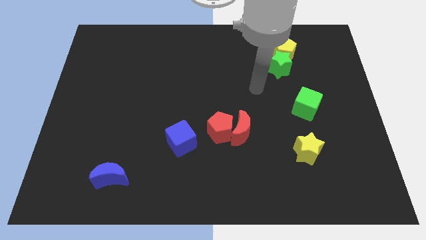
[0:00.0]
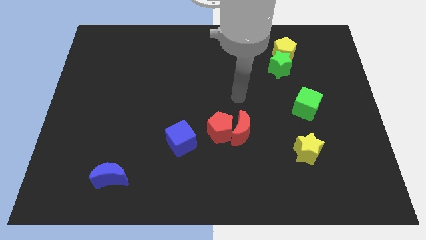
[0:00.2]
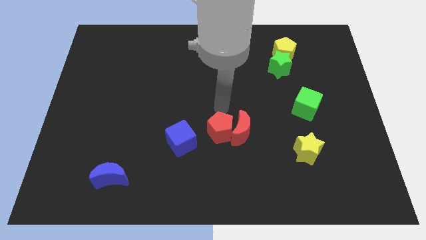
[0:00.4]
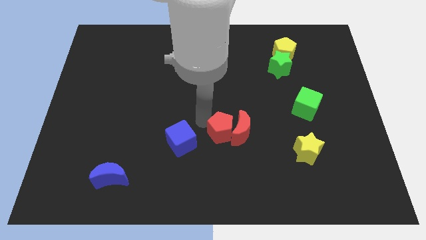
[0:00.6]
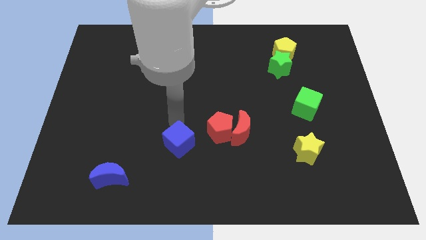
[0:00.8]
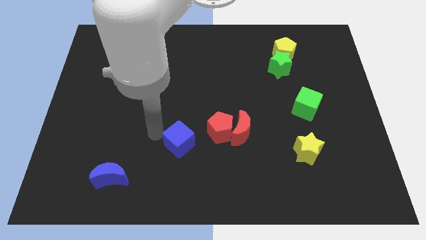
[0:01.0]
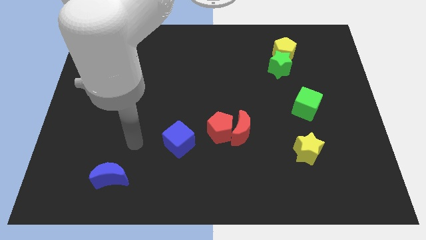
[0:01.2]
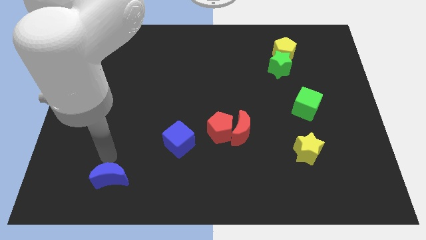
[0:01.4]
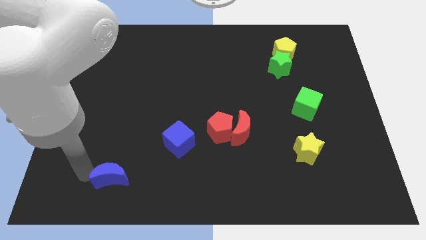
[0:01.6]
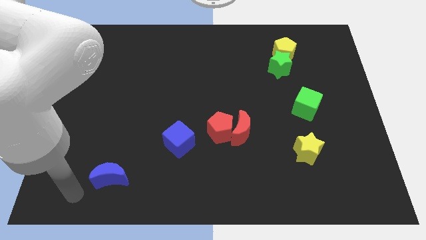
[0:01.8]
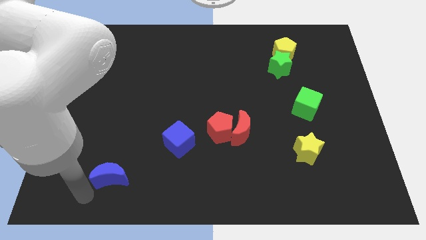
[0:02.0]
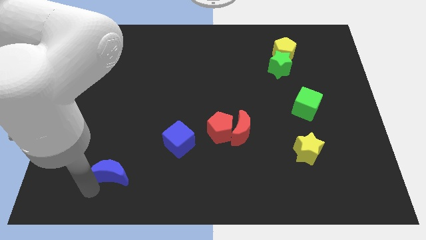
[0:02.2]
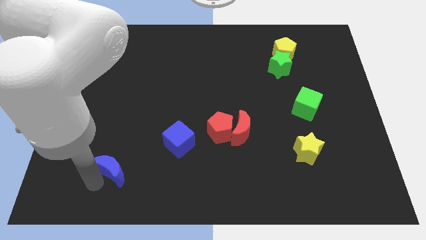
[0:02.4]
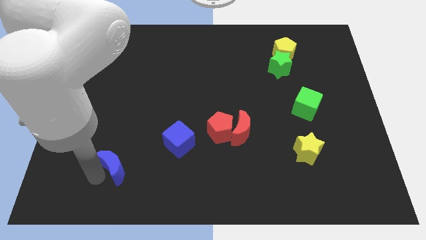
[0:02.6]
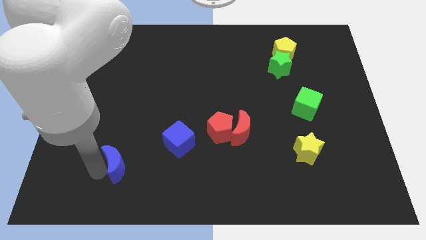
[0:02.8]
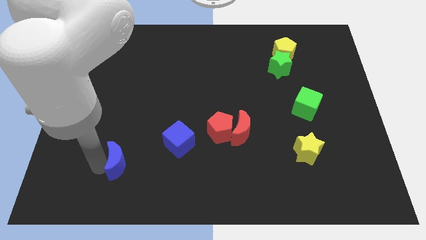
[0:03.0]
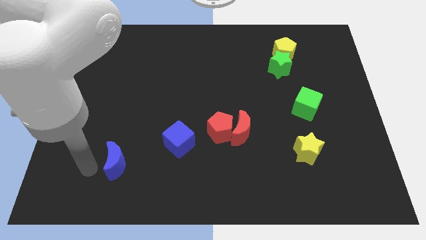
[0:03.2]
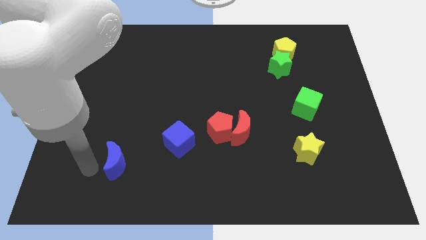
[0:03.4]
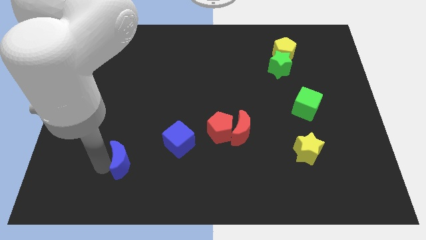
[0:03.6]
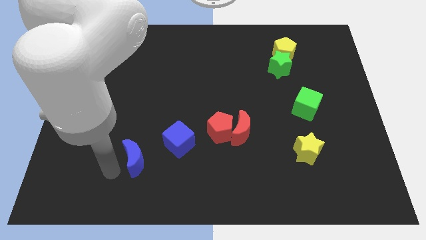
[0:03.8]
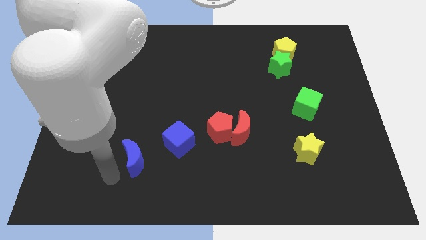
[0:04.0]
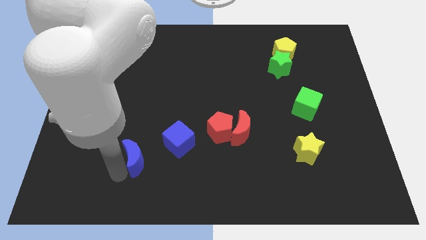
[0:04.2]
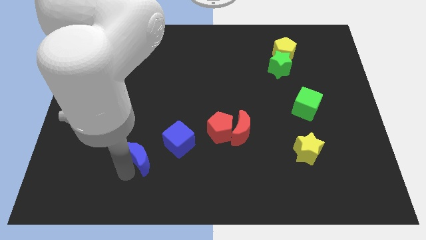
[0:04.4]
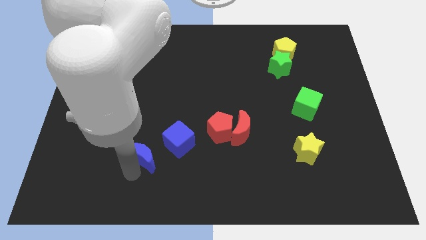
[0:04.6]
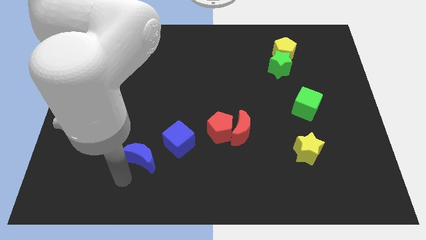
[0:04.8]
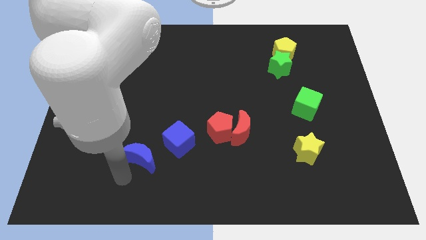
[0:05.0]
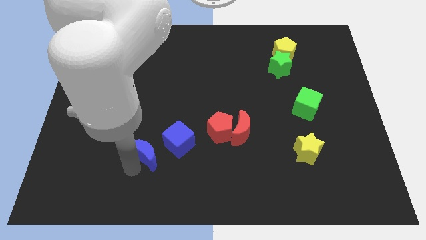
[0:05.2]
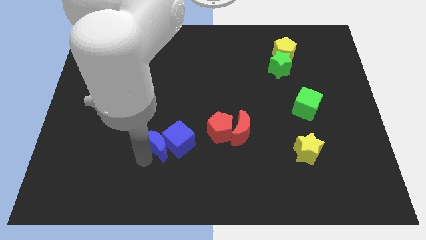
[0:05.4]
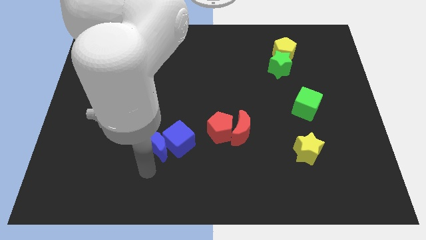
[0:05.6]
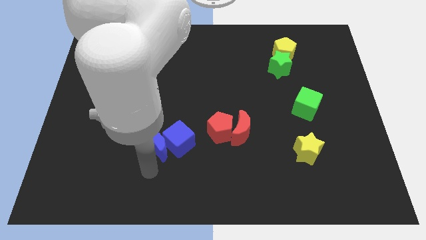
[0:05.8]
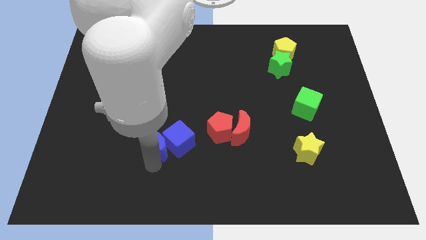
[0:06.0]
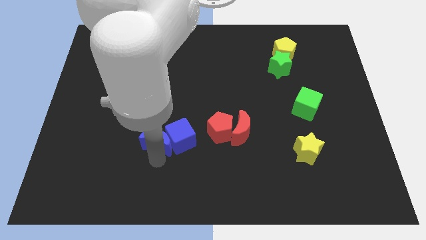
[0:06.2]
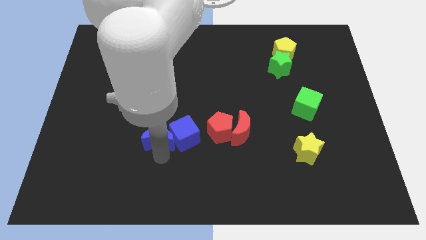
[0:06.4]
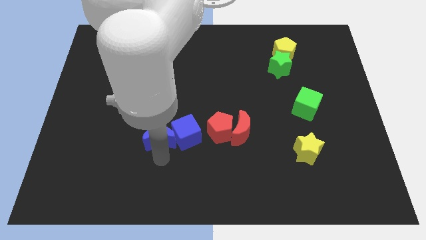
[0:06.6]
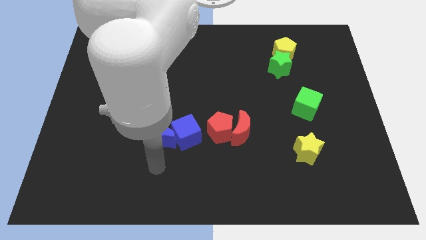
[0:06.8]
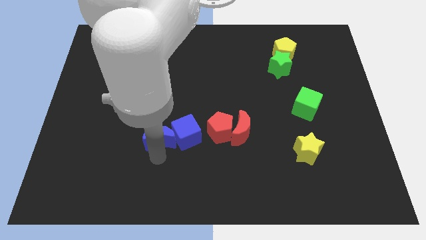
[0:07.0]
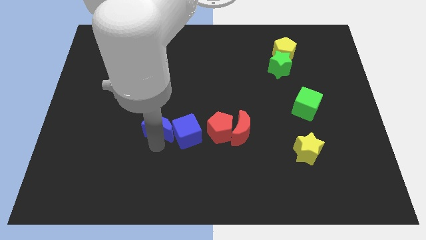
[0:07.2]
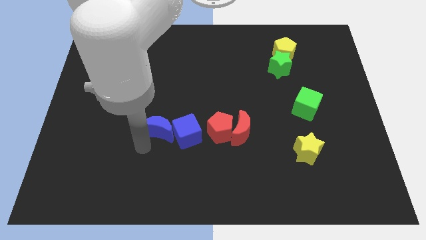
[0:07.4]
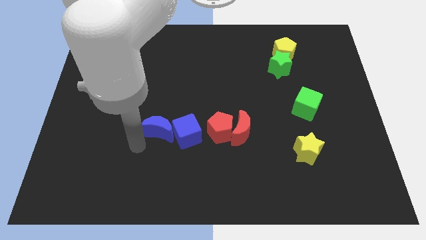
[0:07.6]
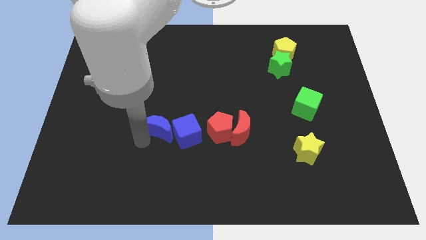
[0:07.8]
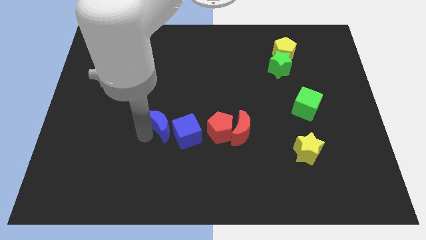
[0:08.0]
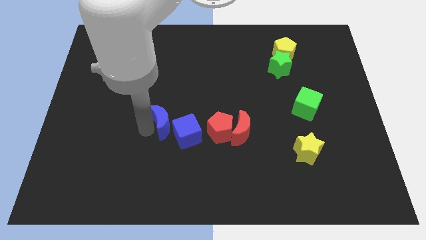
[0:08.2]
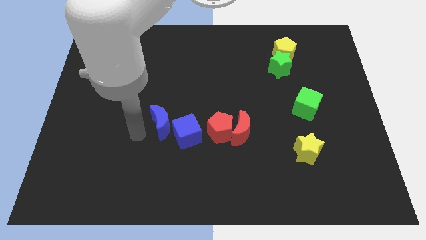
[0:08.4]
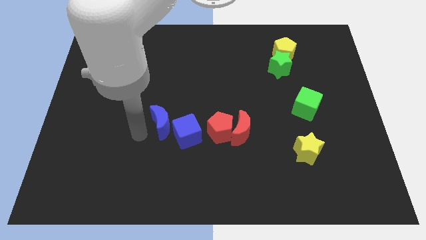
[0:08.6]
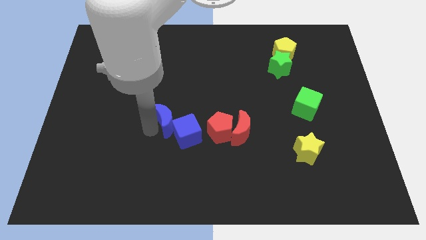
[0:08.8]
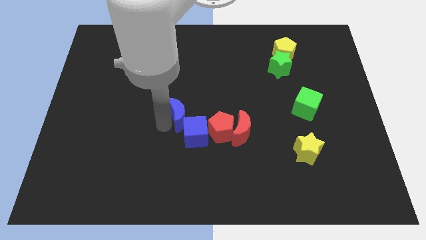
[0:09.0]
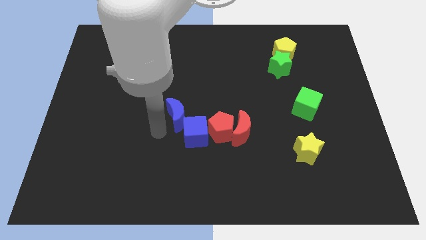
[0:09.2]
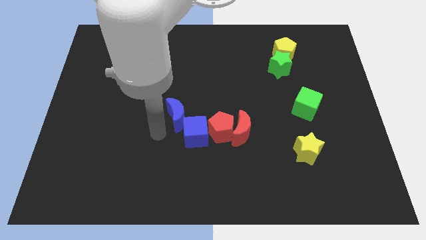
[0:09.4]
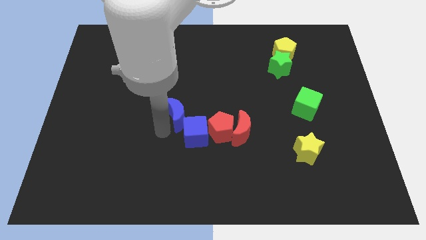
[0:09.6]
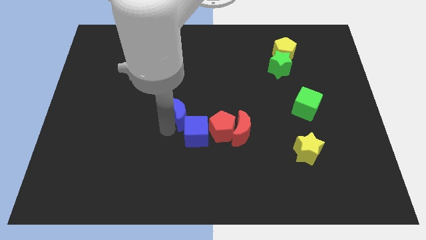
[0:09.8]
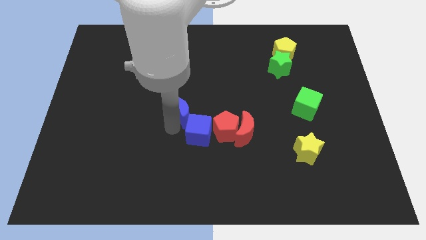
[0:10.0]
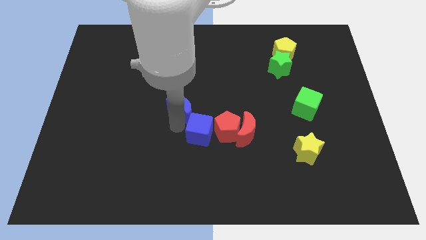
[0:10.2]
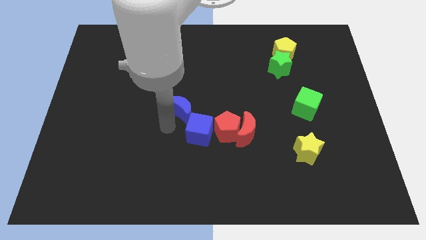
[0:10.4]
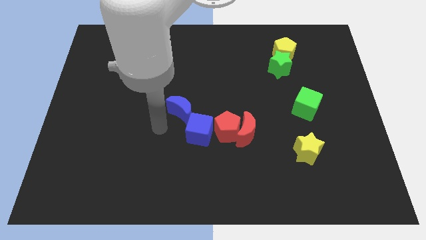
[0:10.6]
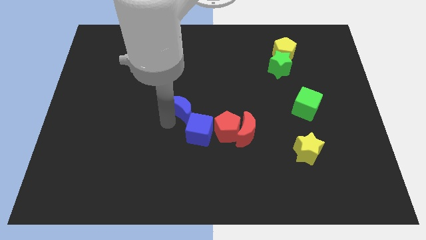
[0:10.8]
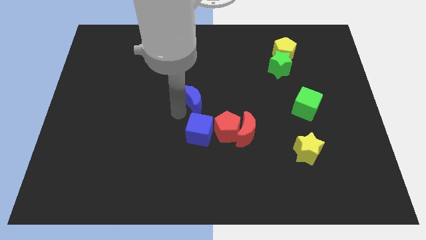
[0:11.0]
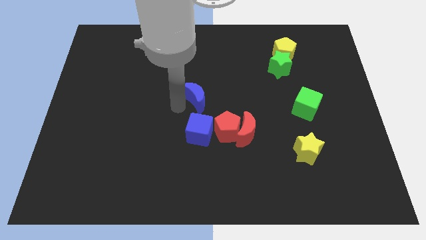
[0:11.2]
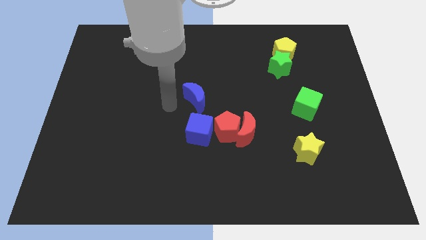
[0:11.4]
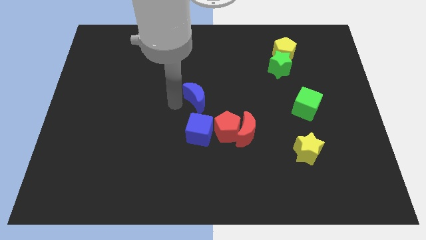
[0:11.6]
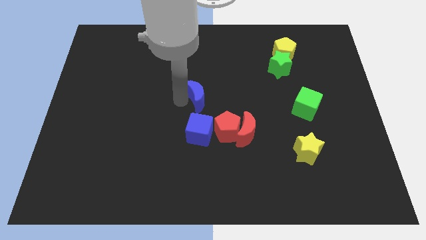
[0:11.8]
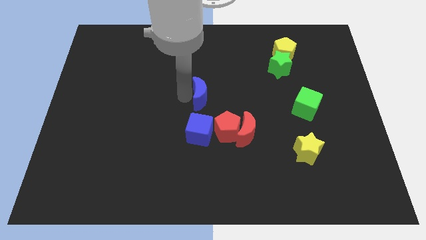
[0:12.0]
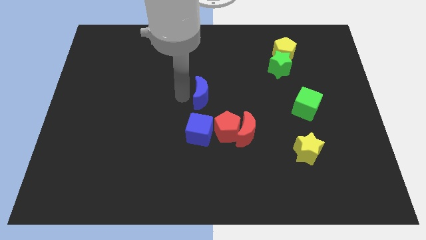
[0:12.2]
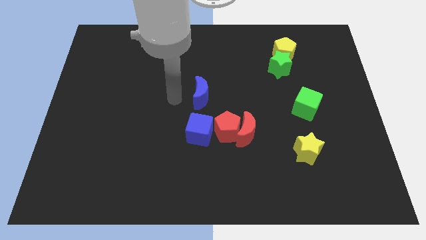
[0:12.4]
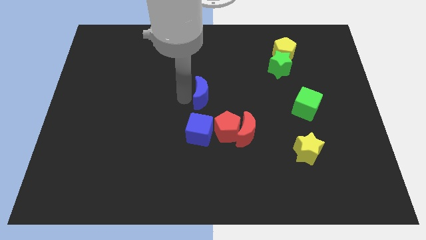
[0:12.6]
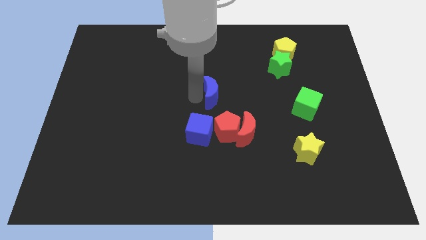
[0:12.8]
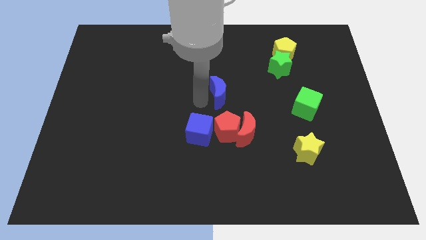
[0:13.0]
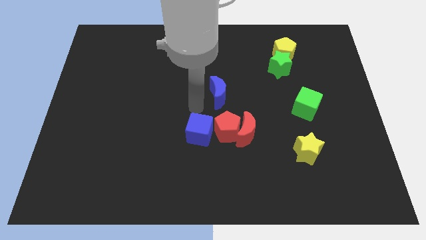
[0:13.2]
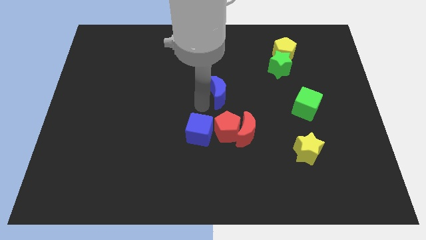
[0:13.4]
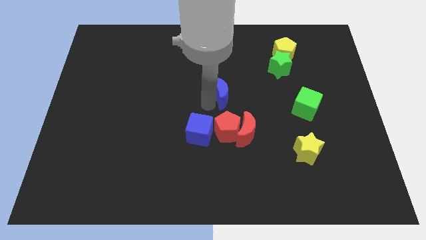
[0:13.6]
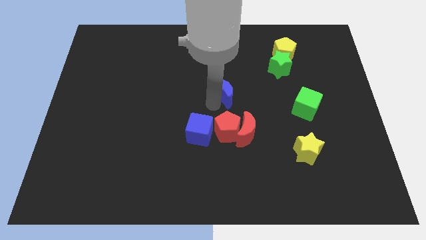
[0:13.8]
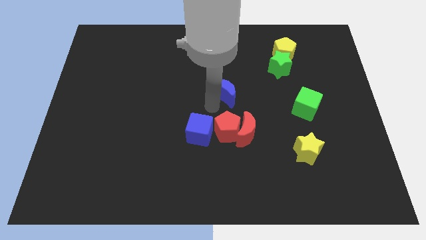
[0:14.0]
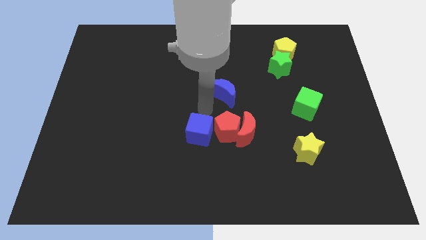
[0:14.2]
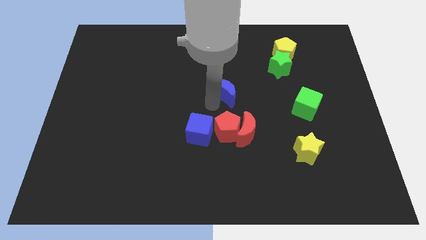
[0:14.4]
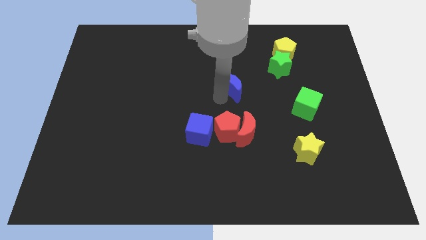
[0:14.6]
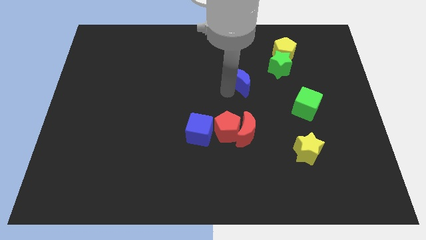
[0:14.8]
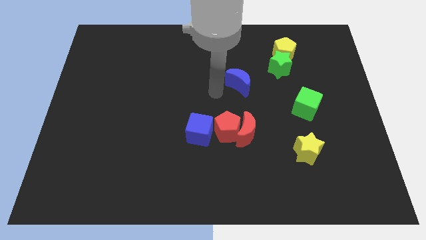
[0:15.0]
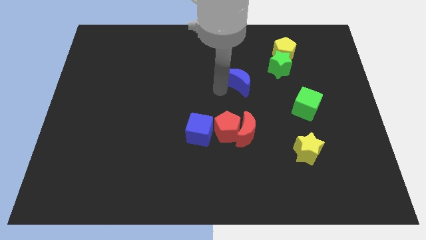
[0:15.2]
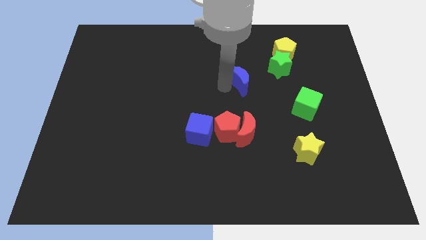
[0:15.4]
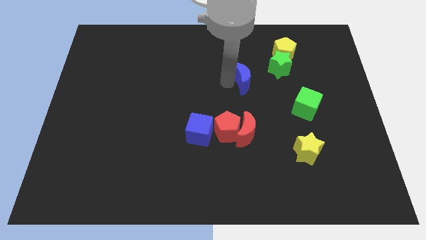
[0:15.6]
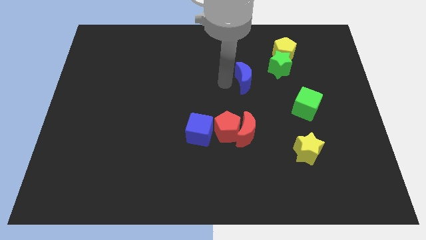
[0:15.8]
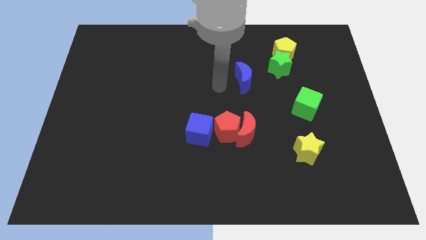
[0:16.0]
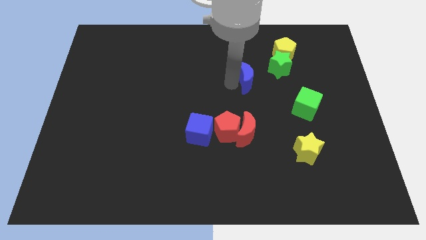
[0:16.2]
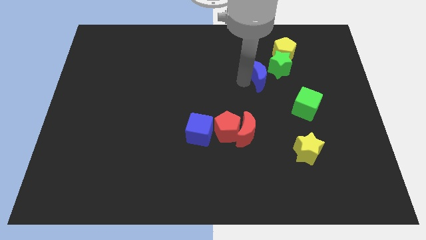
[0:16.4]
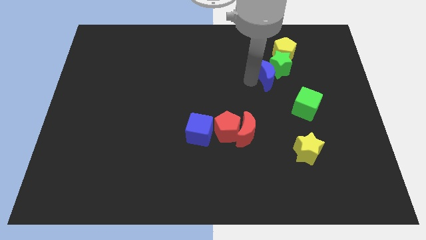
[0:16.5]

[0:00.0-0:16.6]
move the blue moon towards the green star
